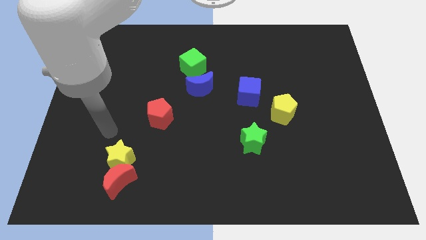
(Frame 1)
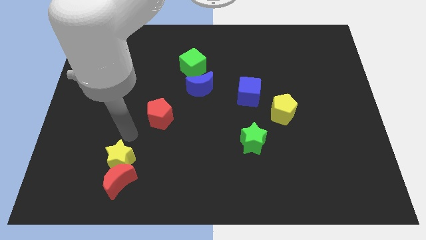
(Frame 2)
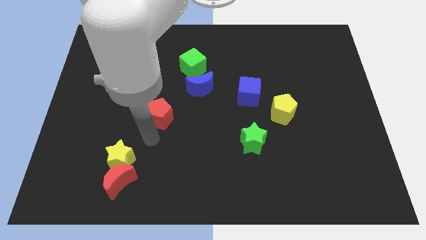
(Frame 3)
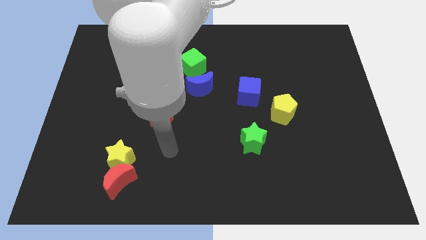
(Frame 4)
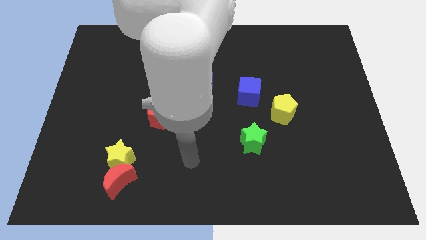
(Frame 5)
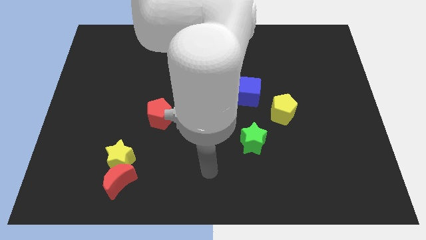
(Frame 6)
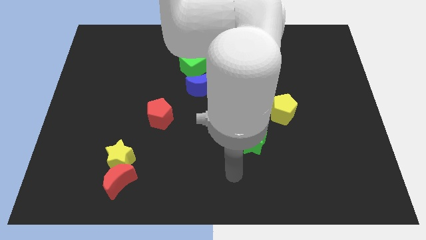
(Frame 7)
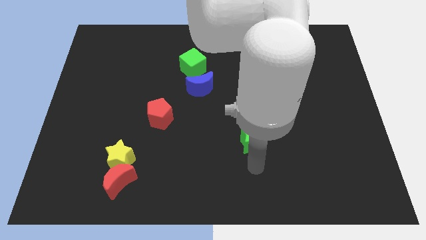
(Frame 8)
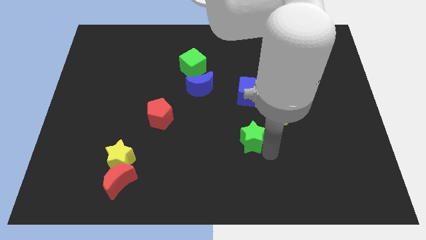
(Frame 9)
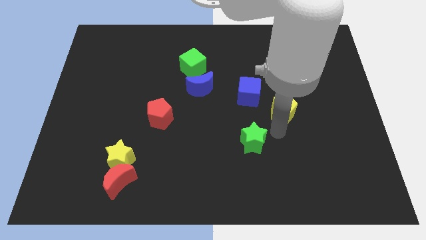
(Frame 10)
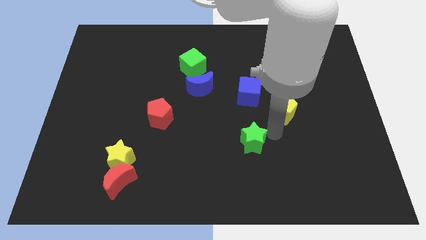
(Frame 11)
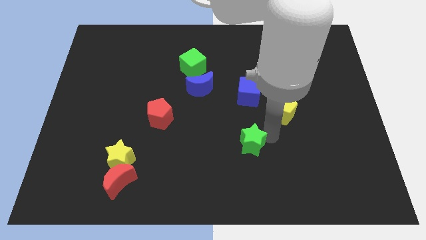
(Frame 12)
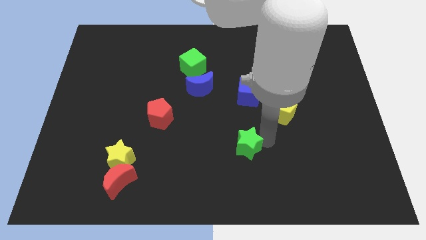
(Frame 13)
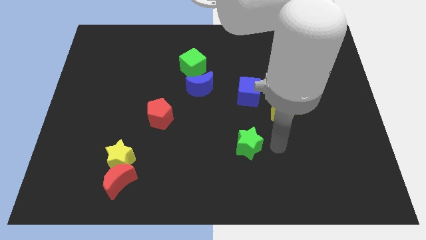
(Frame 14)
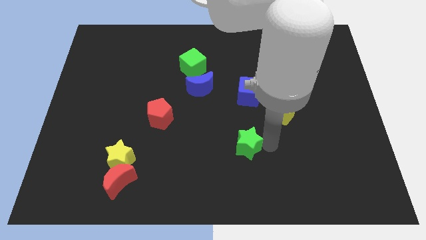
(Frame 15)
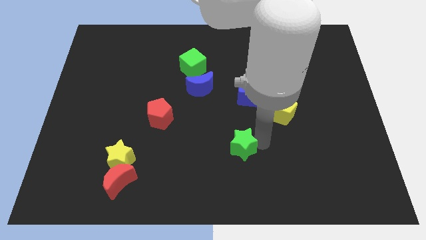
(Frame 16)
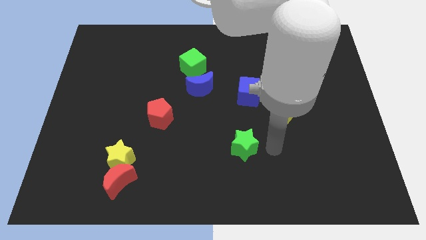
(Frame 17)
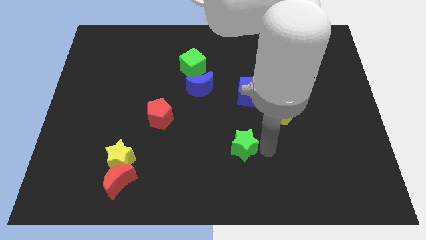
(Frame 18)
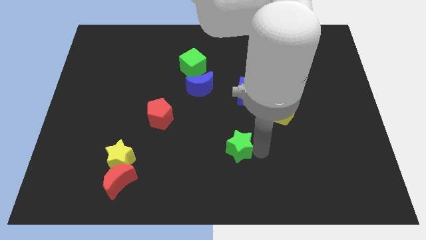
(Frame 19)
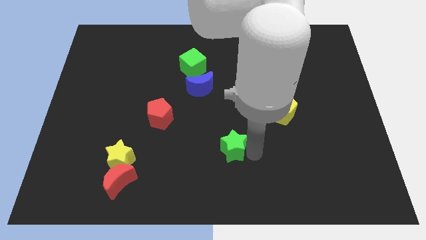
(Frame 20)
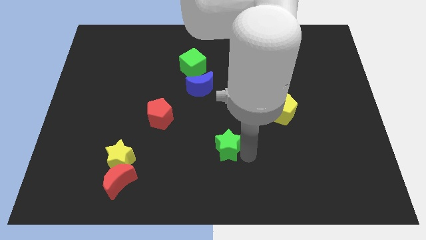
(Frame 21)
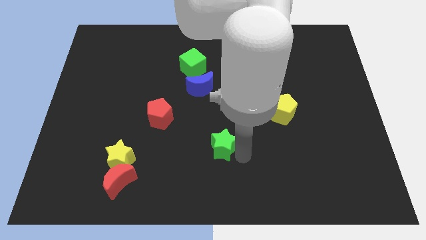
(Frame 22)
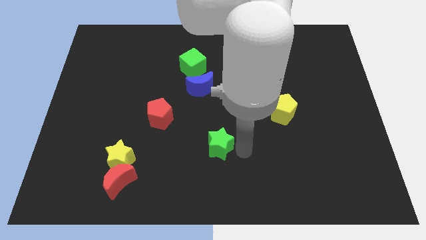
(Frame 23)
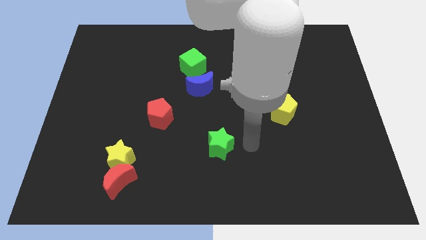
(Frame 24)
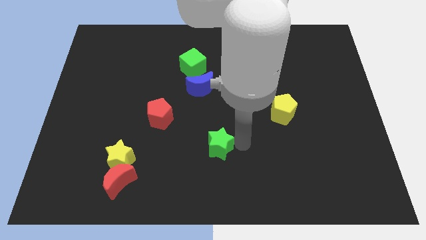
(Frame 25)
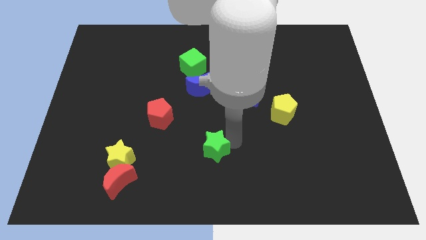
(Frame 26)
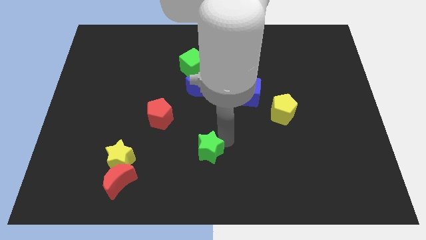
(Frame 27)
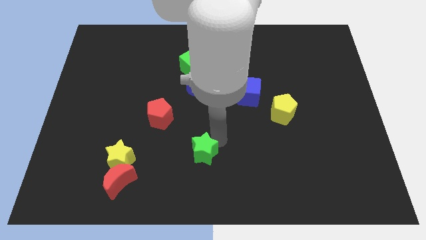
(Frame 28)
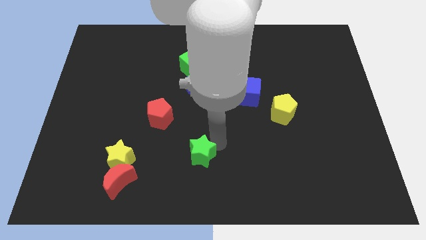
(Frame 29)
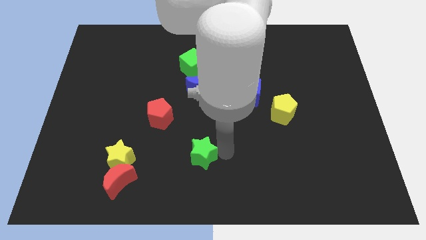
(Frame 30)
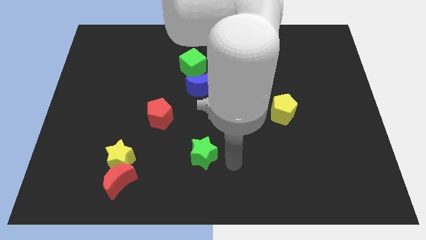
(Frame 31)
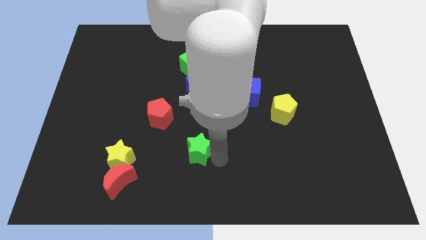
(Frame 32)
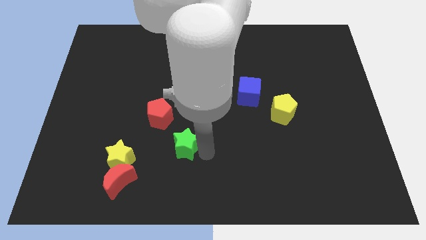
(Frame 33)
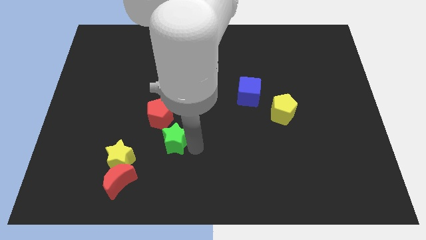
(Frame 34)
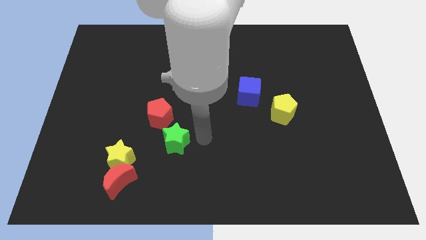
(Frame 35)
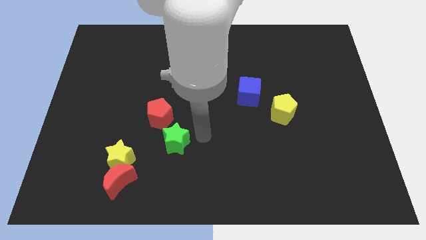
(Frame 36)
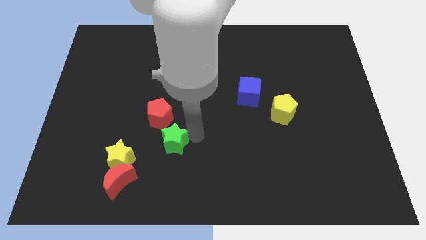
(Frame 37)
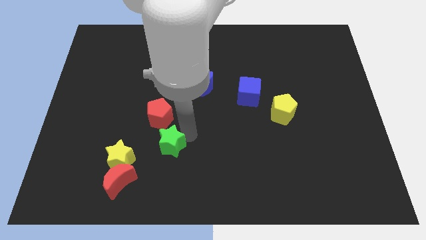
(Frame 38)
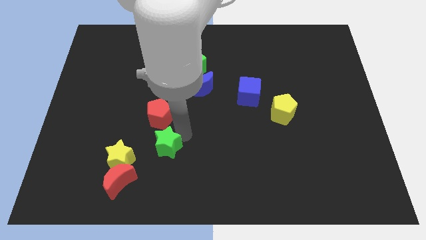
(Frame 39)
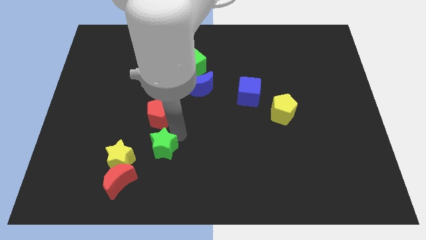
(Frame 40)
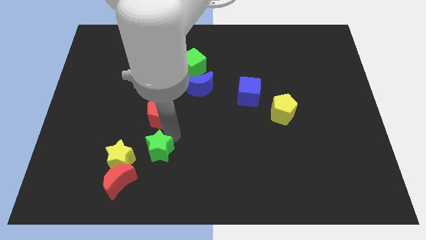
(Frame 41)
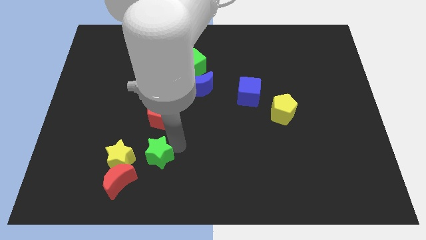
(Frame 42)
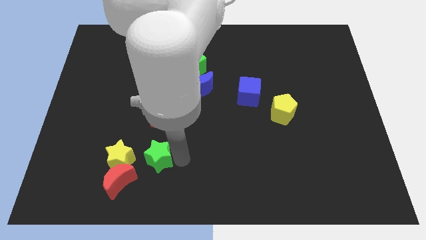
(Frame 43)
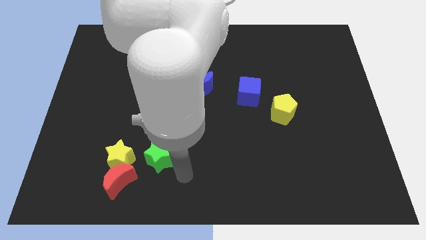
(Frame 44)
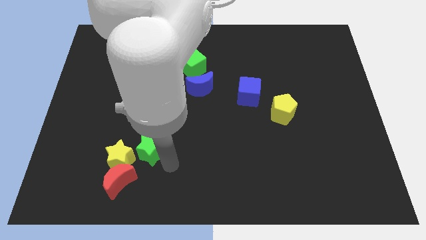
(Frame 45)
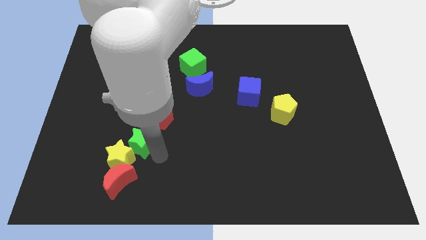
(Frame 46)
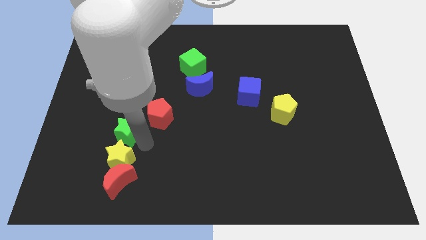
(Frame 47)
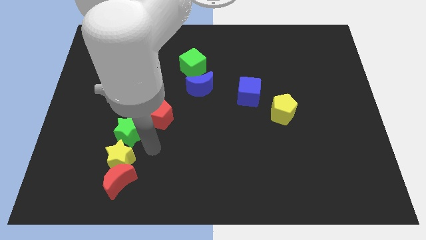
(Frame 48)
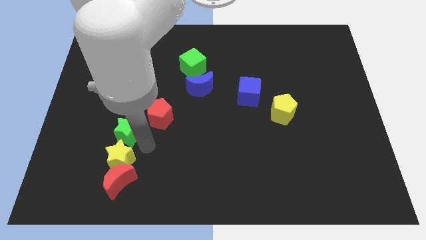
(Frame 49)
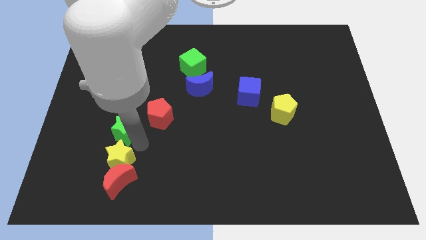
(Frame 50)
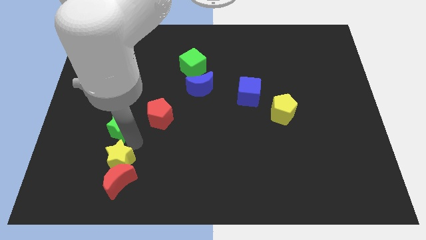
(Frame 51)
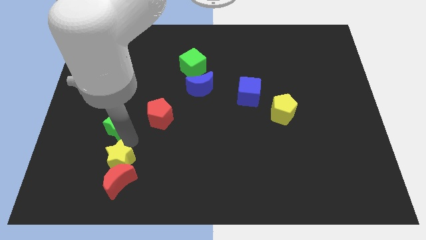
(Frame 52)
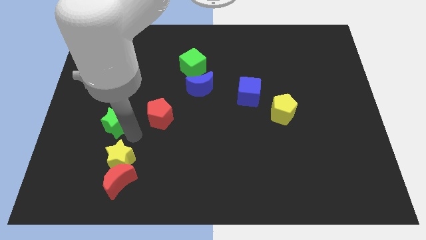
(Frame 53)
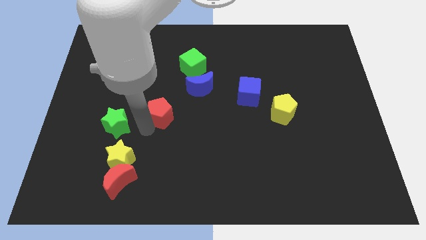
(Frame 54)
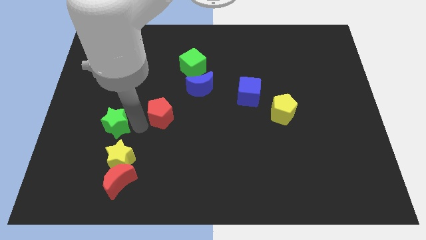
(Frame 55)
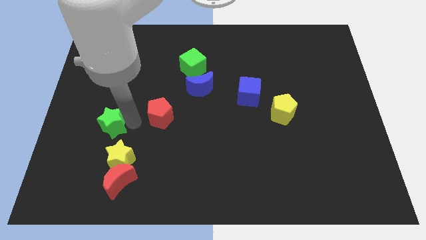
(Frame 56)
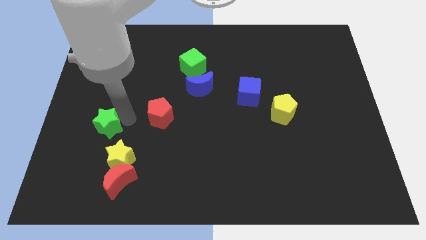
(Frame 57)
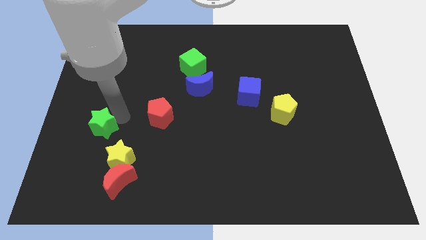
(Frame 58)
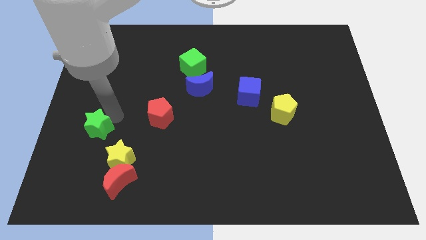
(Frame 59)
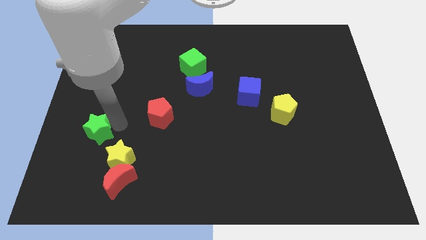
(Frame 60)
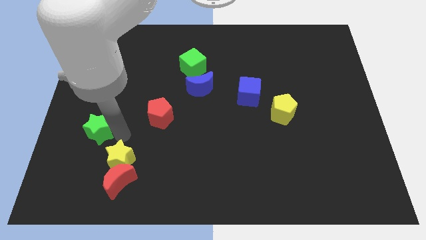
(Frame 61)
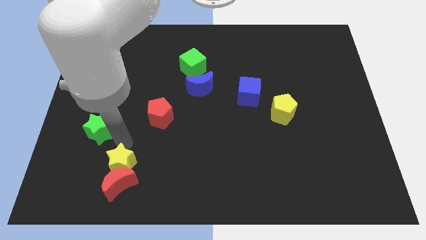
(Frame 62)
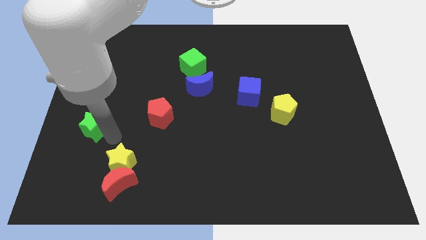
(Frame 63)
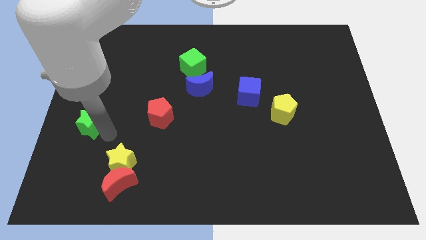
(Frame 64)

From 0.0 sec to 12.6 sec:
push the green star to the left side

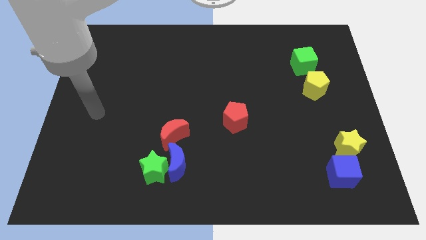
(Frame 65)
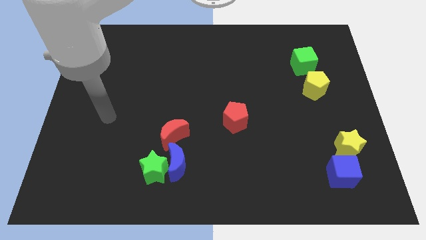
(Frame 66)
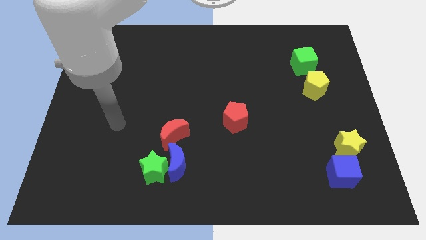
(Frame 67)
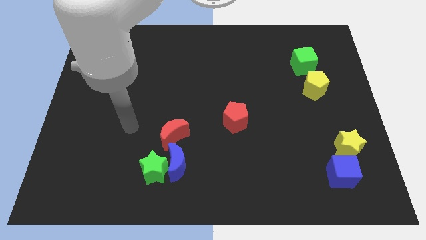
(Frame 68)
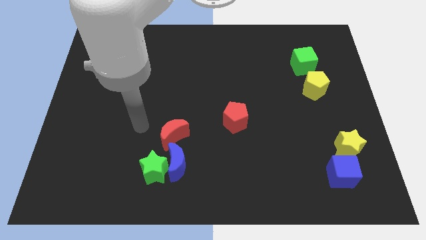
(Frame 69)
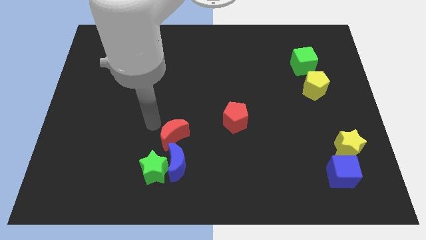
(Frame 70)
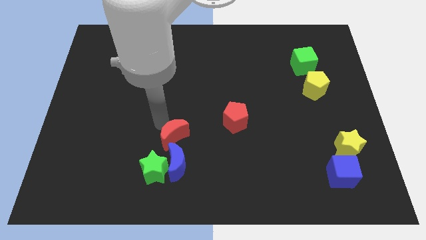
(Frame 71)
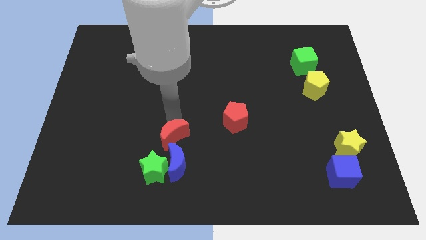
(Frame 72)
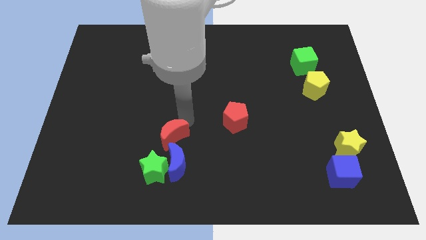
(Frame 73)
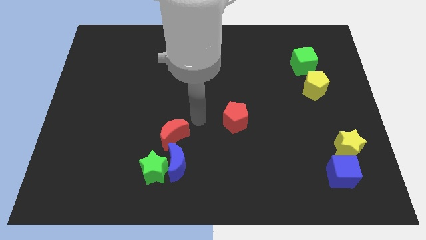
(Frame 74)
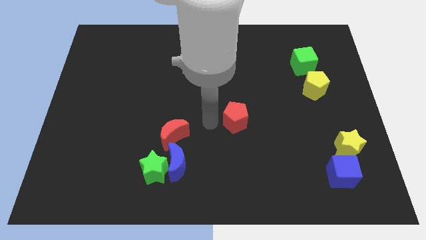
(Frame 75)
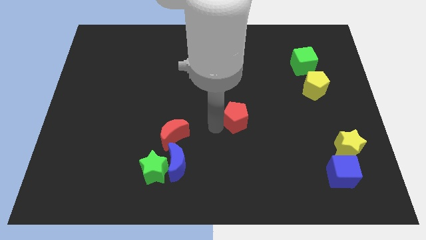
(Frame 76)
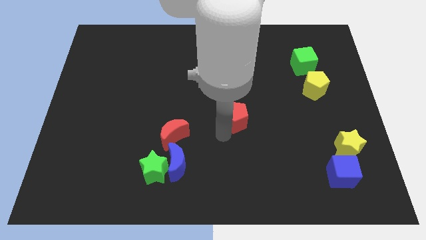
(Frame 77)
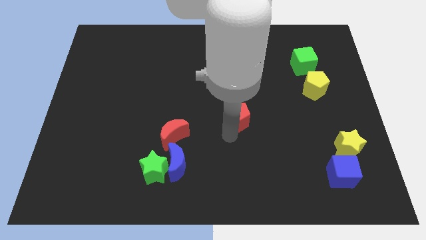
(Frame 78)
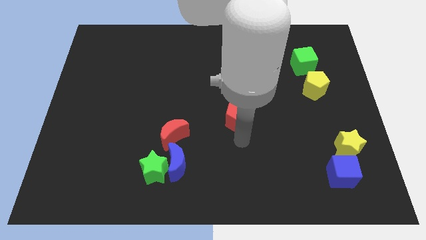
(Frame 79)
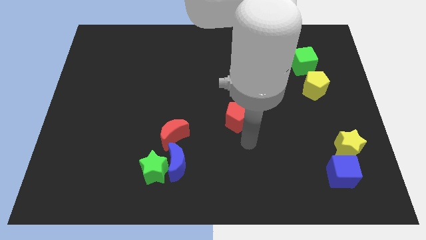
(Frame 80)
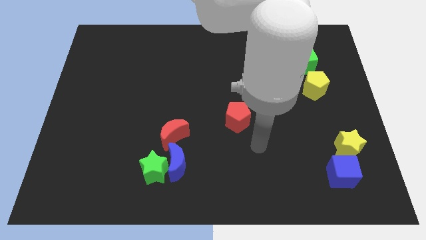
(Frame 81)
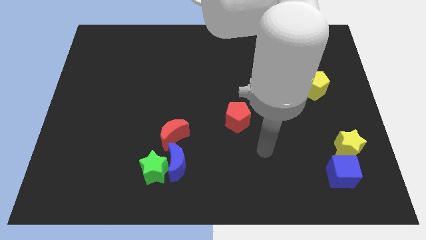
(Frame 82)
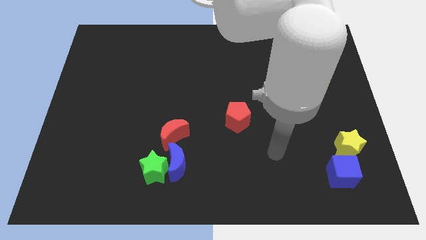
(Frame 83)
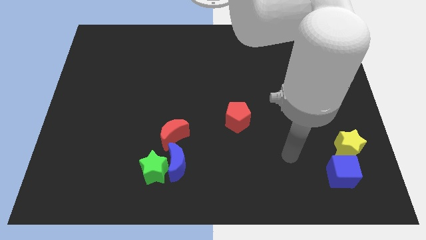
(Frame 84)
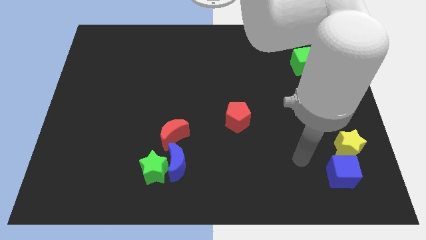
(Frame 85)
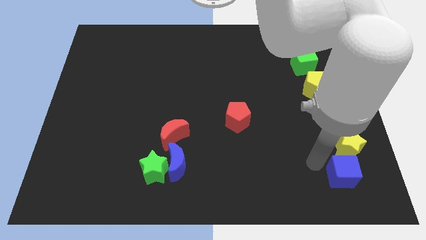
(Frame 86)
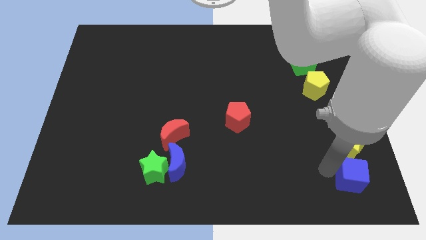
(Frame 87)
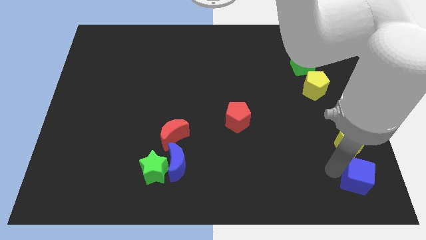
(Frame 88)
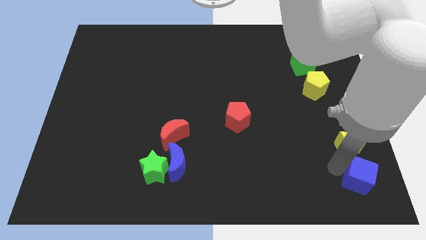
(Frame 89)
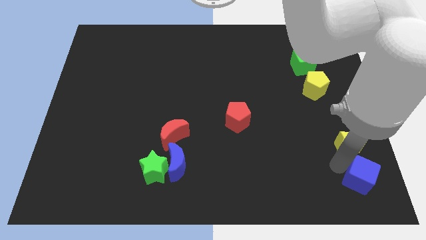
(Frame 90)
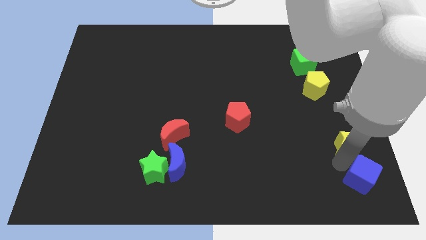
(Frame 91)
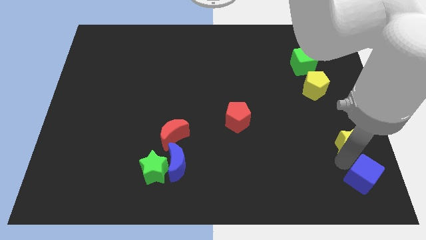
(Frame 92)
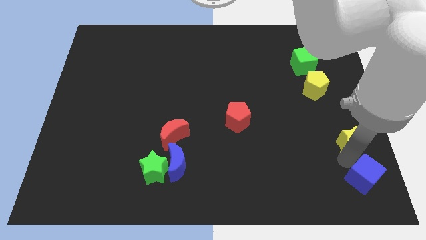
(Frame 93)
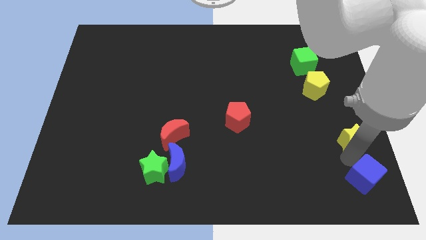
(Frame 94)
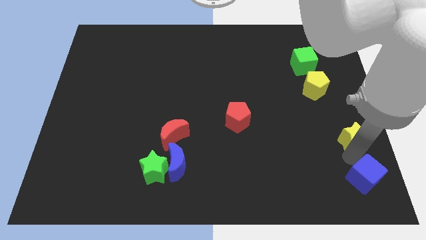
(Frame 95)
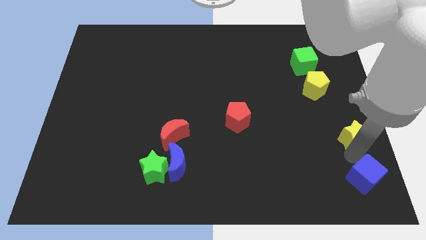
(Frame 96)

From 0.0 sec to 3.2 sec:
slide the yellow star to the center right
